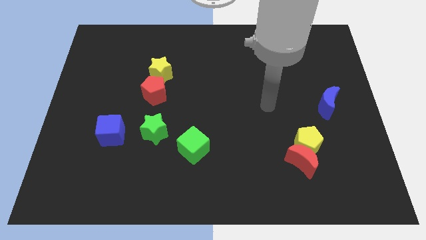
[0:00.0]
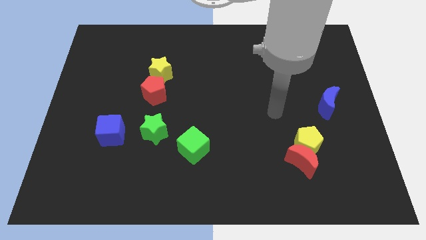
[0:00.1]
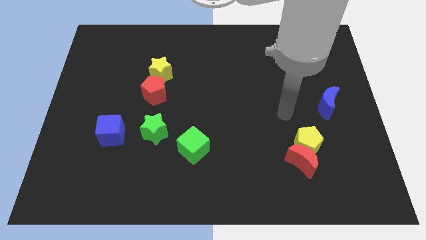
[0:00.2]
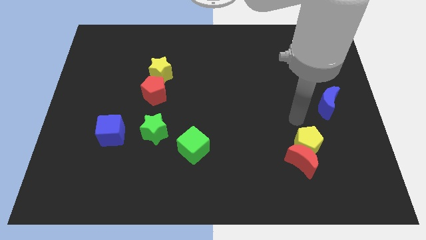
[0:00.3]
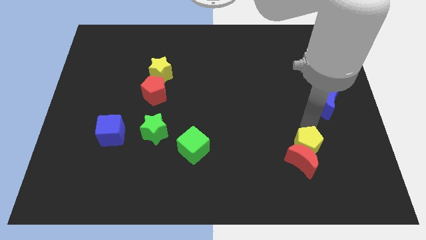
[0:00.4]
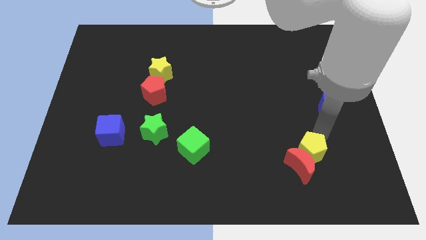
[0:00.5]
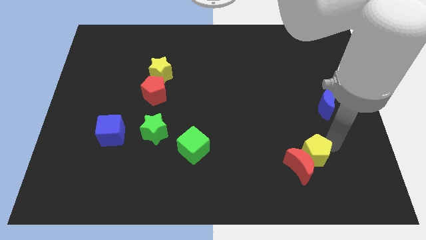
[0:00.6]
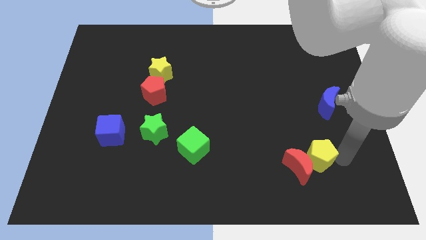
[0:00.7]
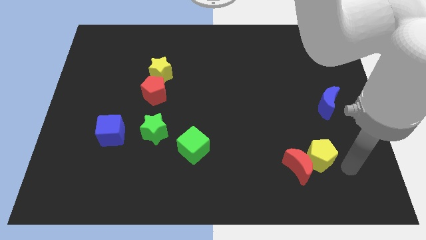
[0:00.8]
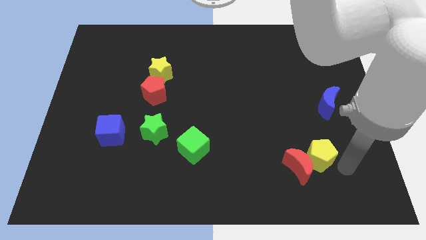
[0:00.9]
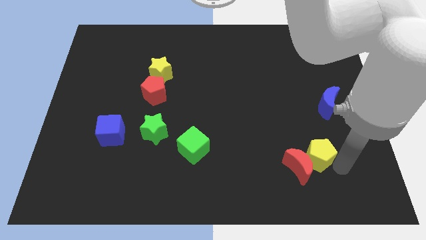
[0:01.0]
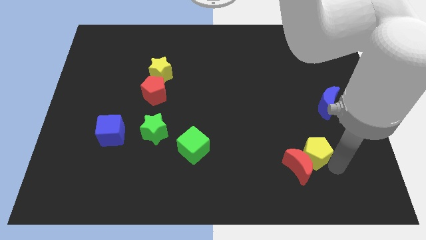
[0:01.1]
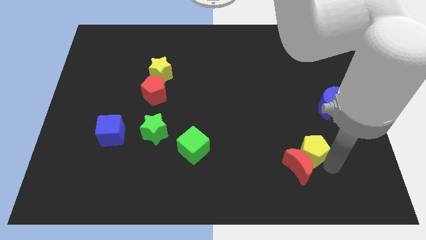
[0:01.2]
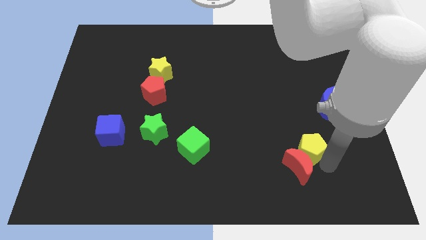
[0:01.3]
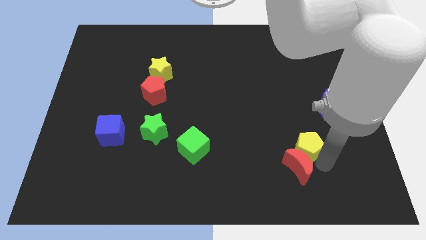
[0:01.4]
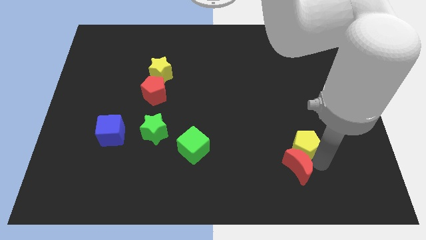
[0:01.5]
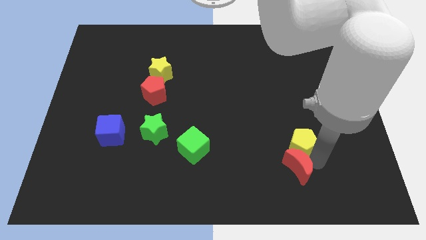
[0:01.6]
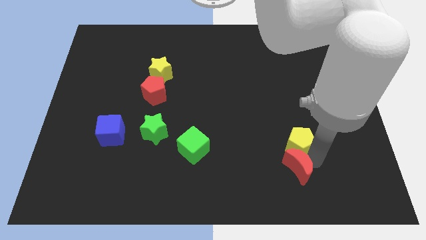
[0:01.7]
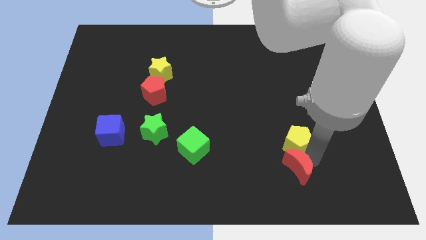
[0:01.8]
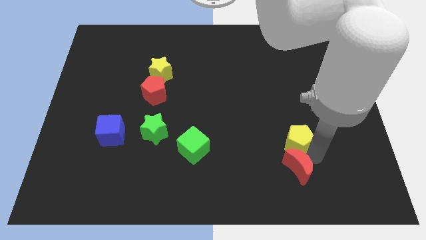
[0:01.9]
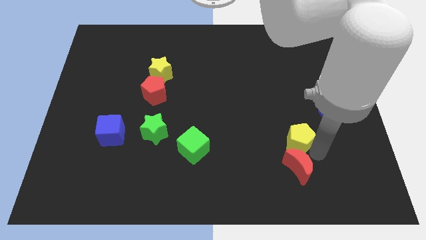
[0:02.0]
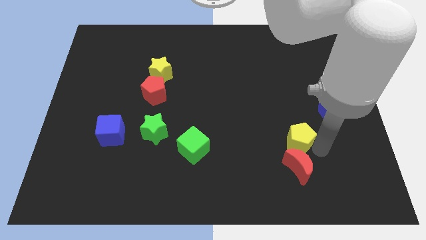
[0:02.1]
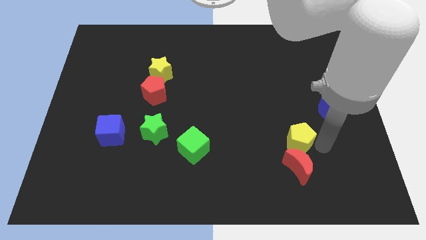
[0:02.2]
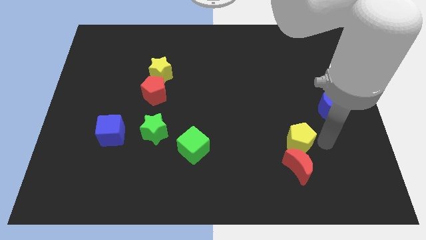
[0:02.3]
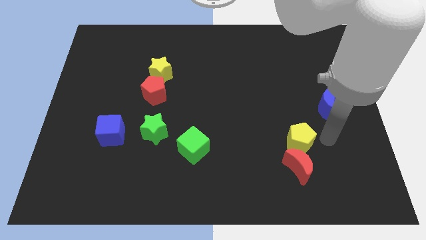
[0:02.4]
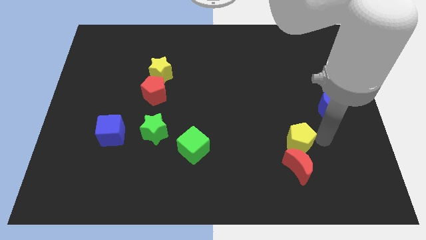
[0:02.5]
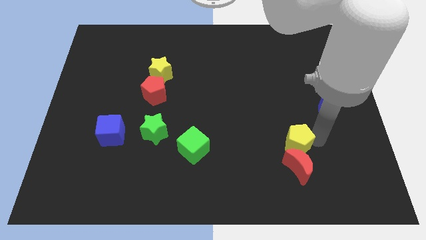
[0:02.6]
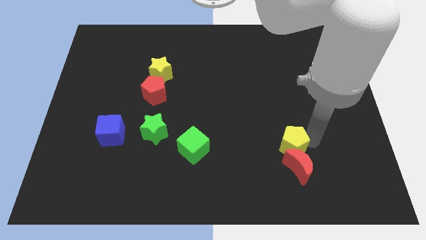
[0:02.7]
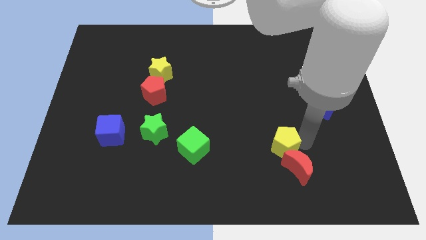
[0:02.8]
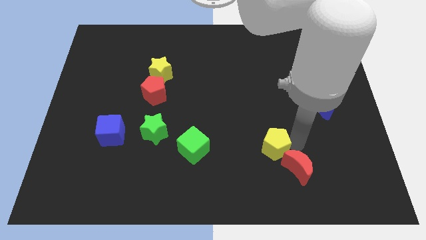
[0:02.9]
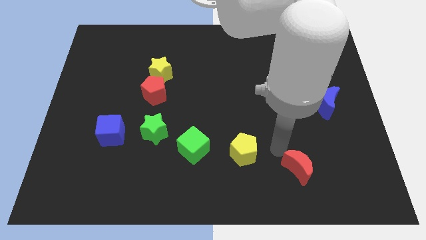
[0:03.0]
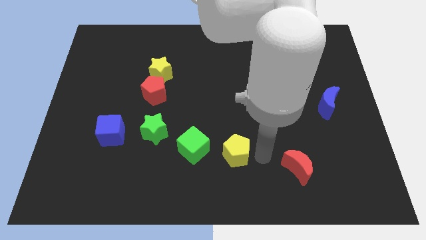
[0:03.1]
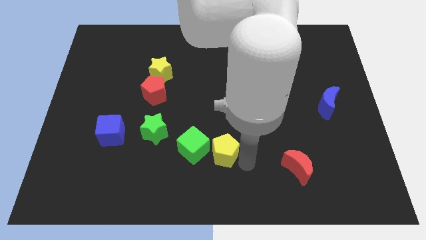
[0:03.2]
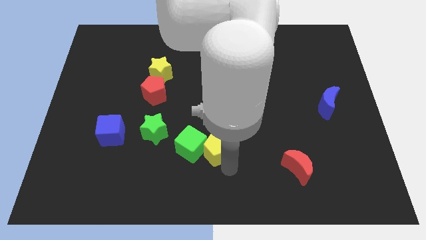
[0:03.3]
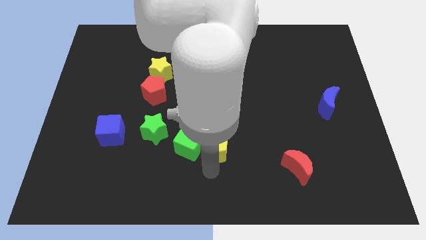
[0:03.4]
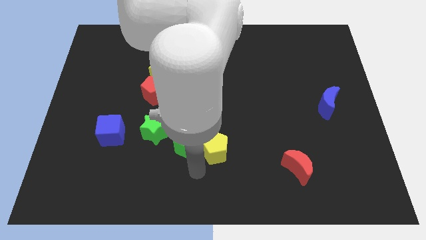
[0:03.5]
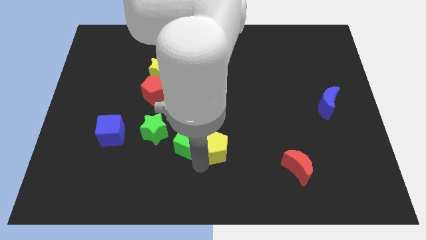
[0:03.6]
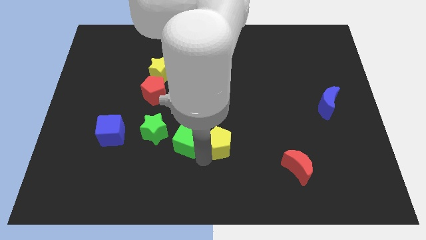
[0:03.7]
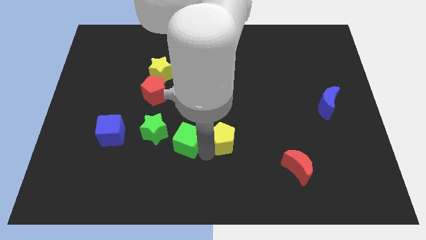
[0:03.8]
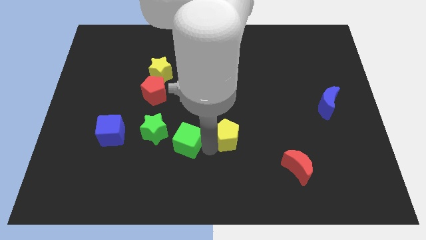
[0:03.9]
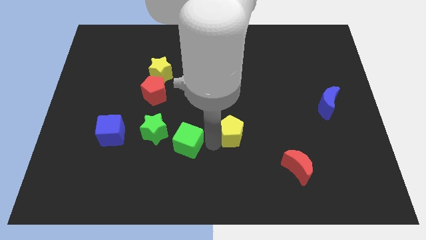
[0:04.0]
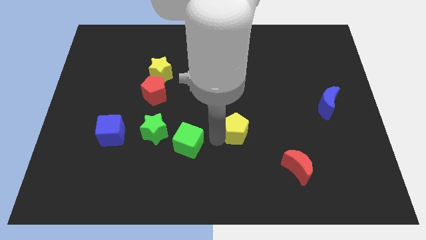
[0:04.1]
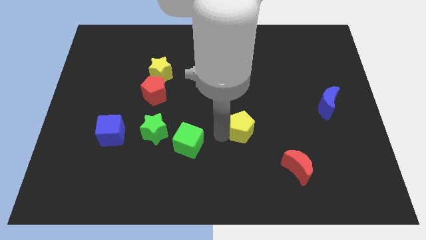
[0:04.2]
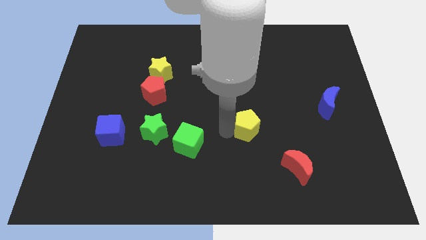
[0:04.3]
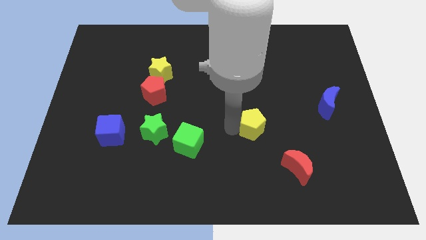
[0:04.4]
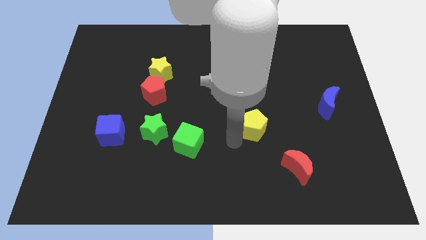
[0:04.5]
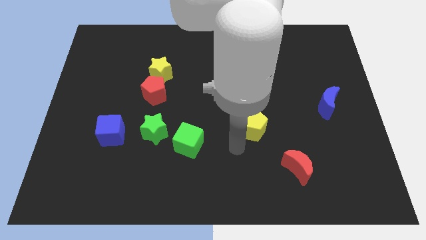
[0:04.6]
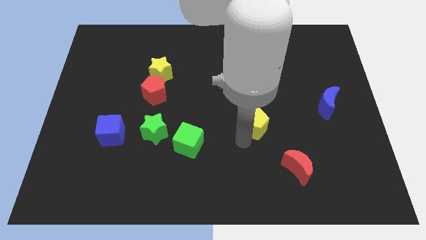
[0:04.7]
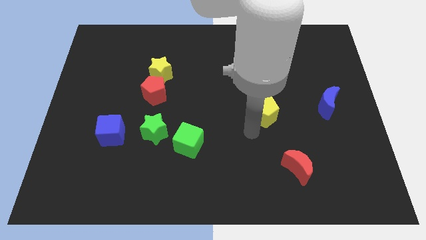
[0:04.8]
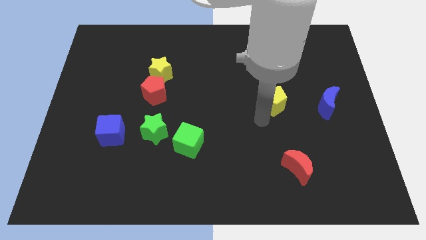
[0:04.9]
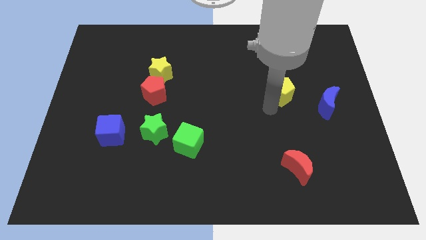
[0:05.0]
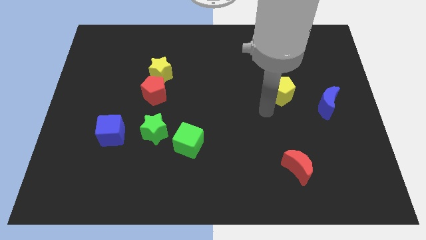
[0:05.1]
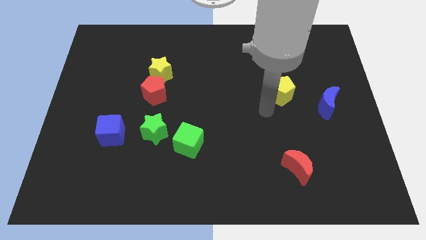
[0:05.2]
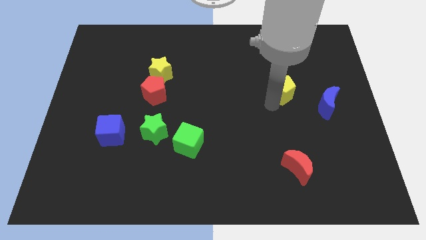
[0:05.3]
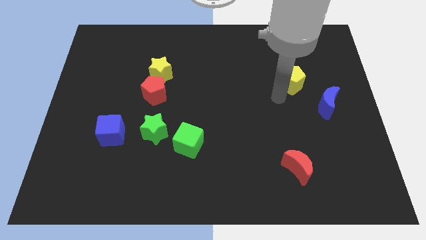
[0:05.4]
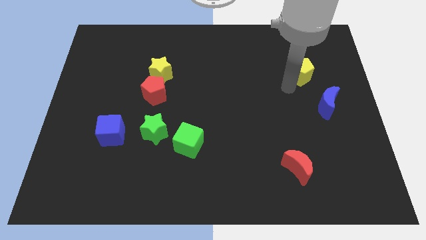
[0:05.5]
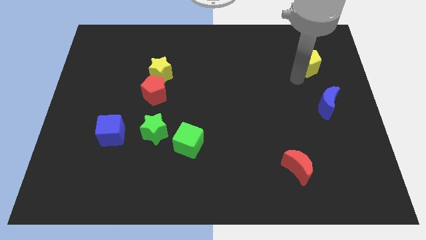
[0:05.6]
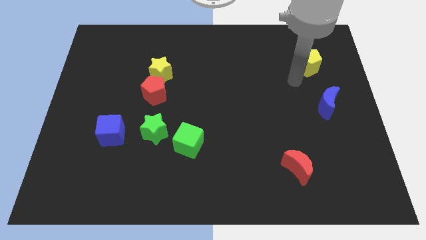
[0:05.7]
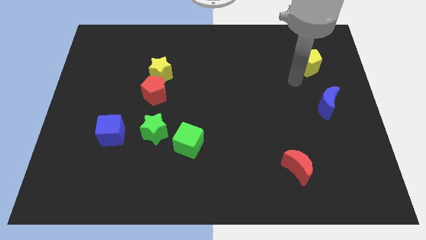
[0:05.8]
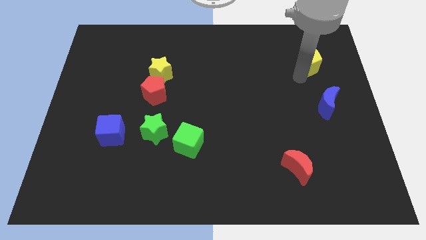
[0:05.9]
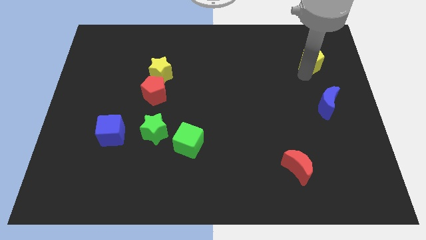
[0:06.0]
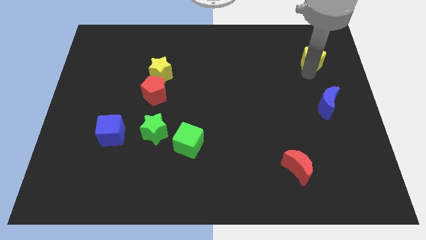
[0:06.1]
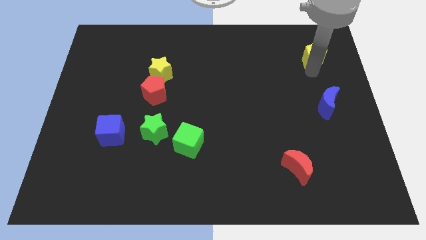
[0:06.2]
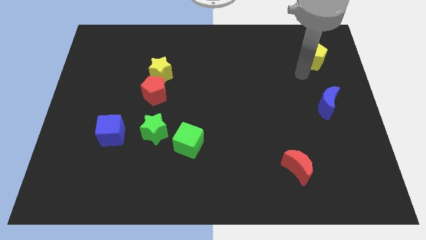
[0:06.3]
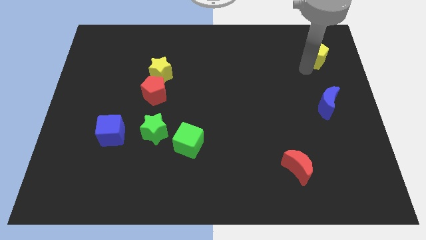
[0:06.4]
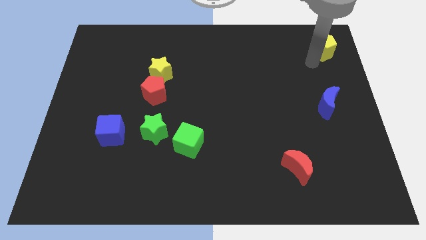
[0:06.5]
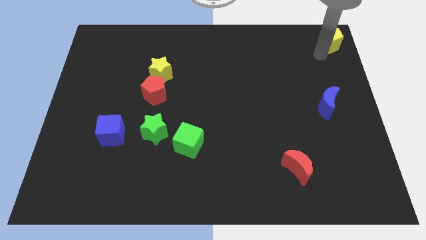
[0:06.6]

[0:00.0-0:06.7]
slide the yellow pentagon to the top right of the board
